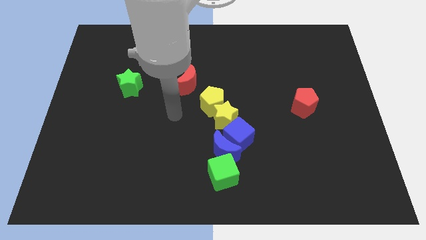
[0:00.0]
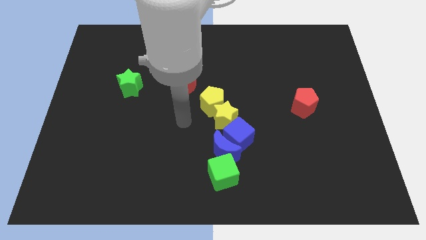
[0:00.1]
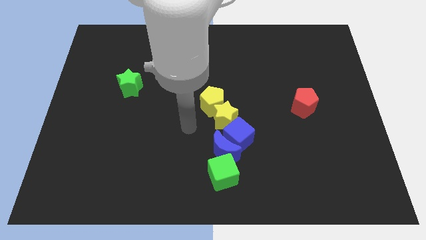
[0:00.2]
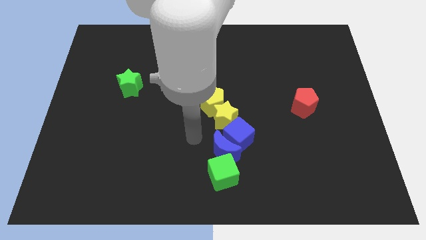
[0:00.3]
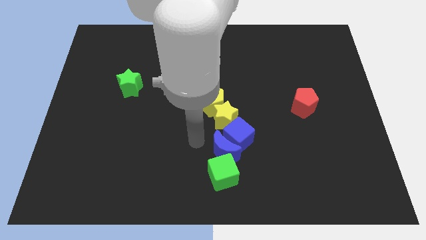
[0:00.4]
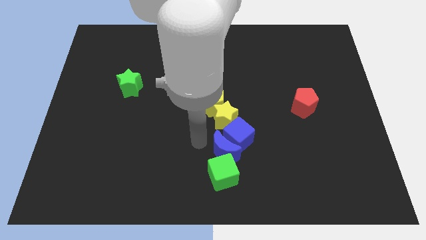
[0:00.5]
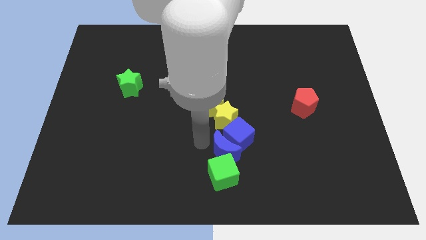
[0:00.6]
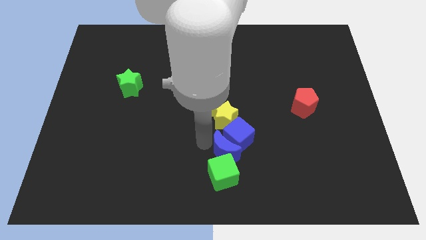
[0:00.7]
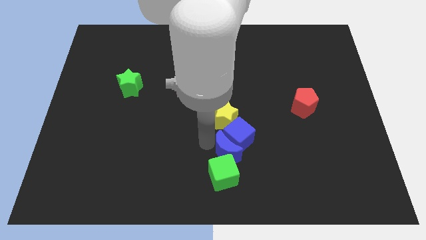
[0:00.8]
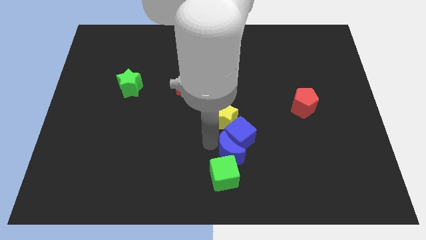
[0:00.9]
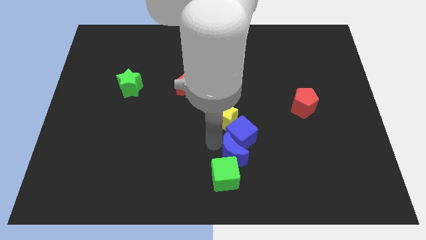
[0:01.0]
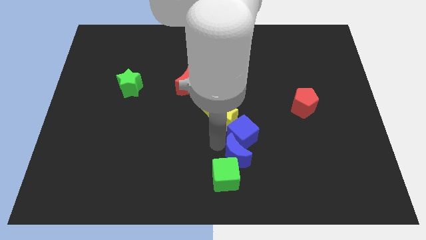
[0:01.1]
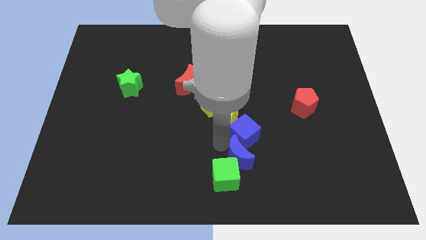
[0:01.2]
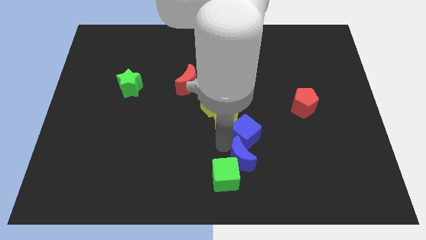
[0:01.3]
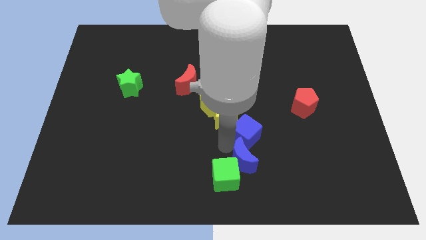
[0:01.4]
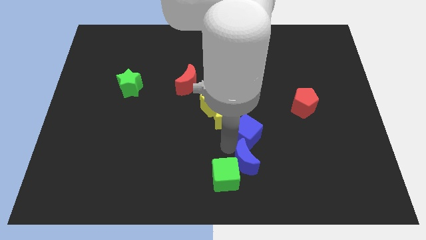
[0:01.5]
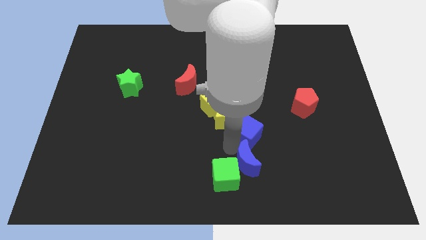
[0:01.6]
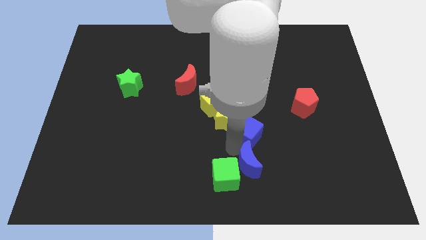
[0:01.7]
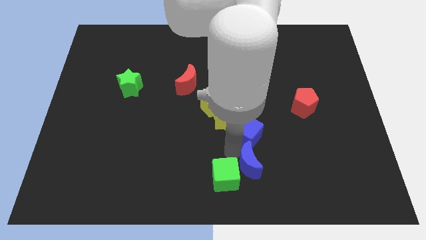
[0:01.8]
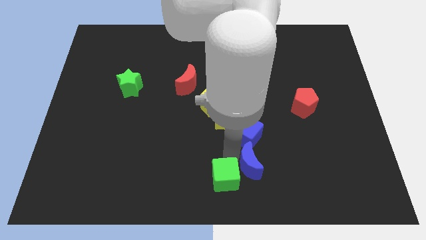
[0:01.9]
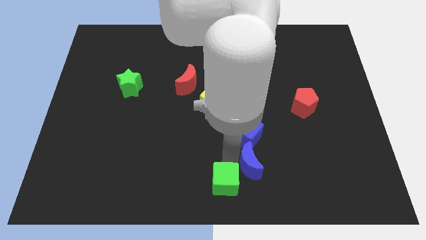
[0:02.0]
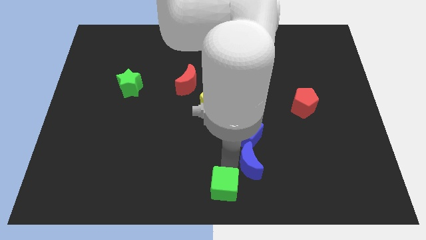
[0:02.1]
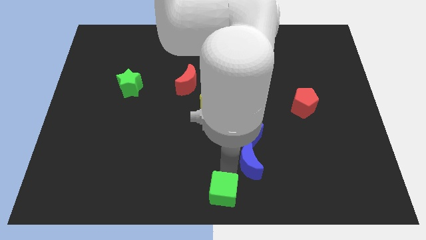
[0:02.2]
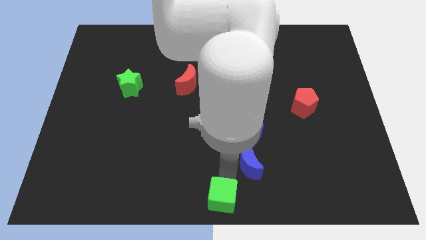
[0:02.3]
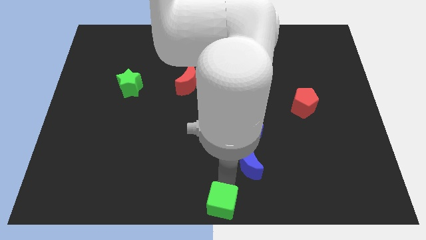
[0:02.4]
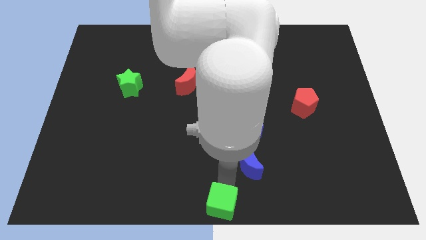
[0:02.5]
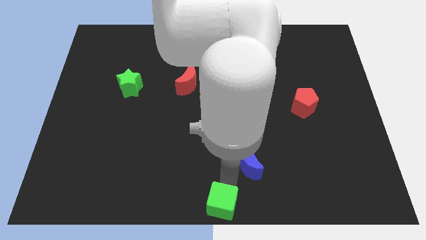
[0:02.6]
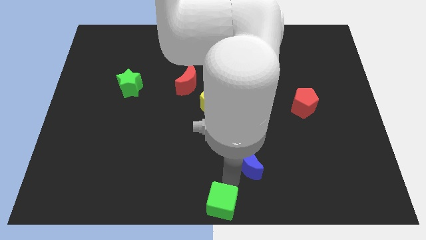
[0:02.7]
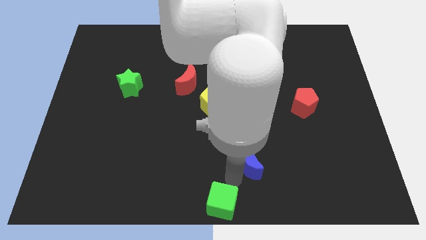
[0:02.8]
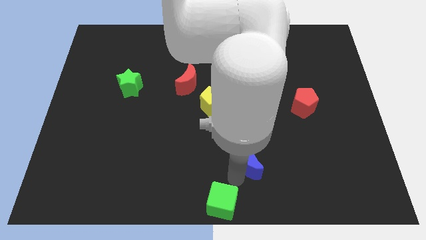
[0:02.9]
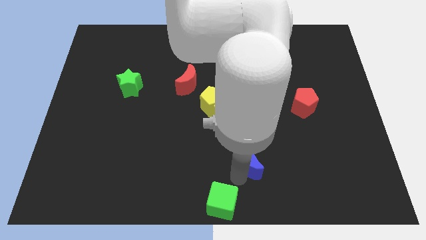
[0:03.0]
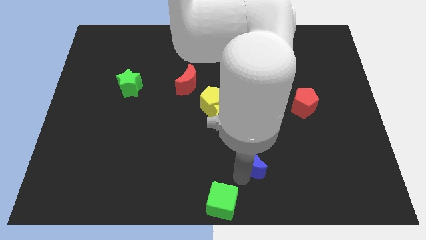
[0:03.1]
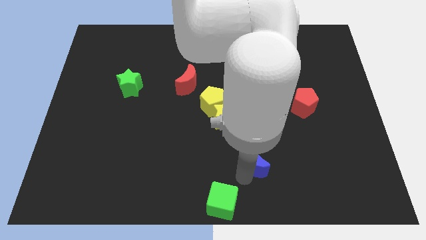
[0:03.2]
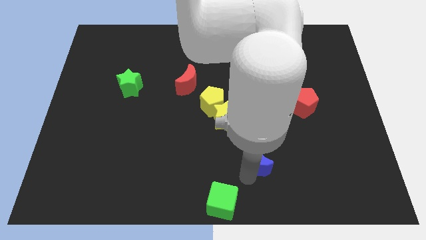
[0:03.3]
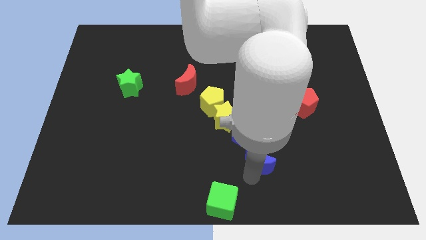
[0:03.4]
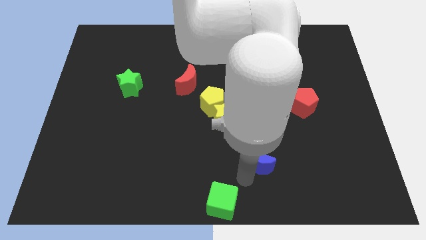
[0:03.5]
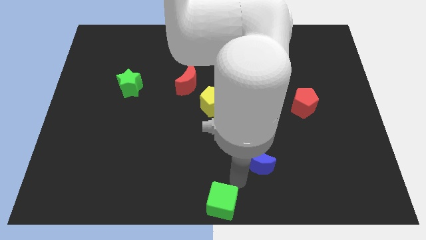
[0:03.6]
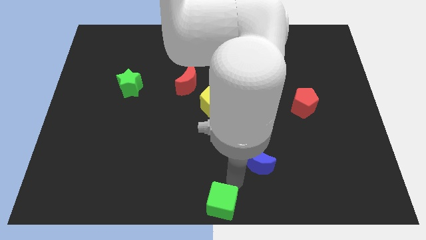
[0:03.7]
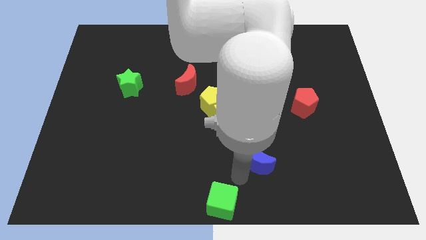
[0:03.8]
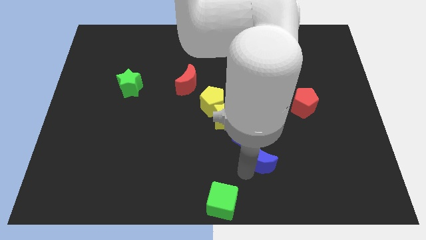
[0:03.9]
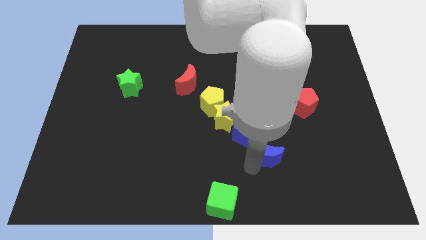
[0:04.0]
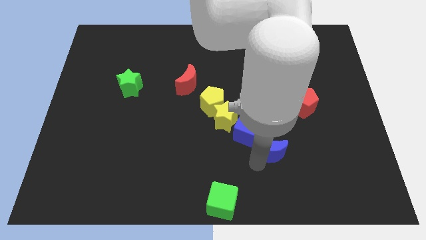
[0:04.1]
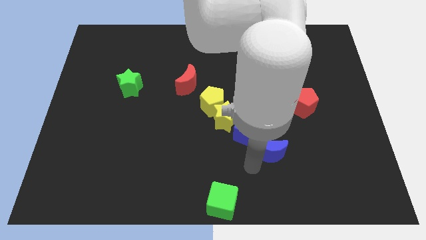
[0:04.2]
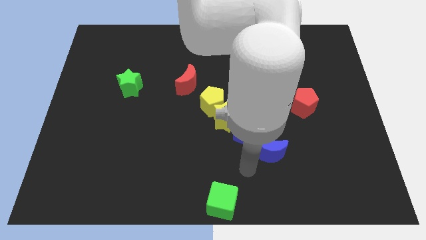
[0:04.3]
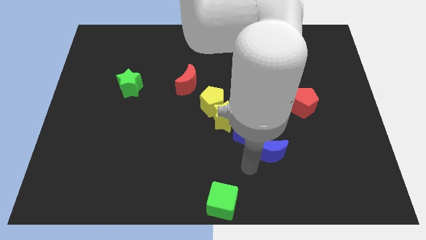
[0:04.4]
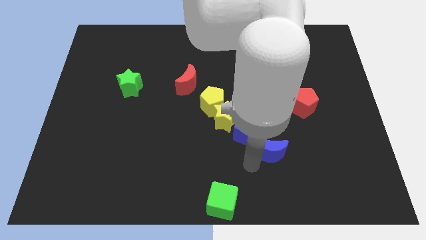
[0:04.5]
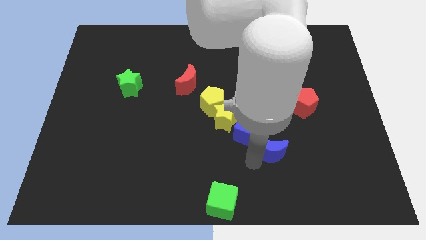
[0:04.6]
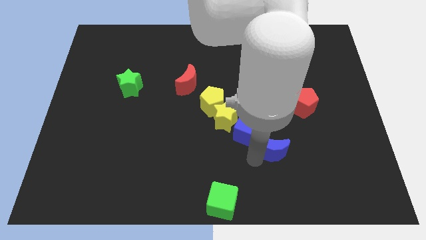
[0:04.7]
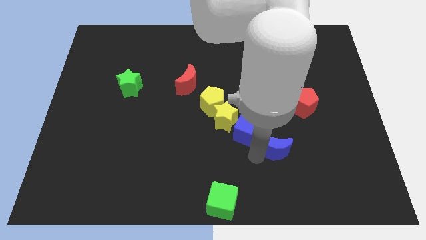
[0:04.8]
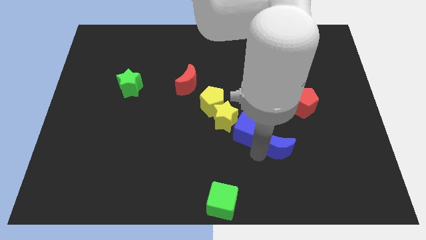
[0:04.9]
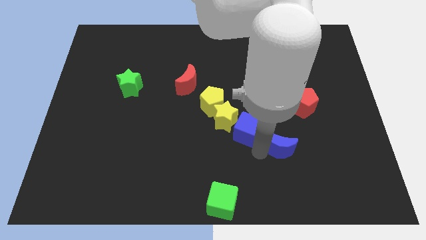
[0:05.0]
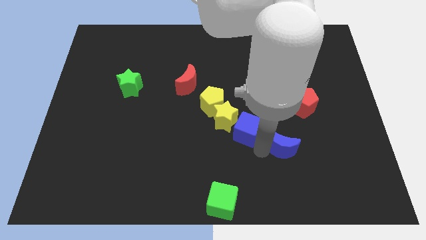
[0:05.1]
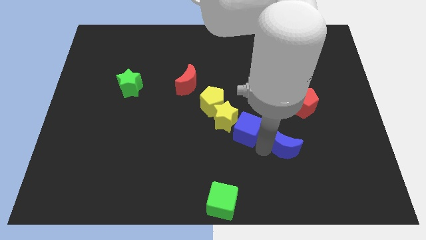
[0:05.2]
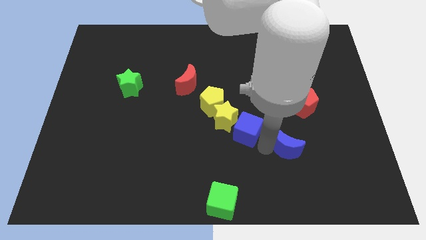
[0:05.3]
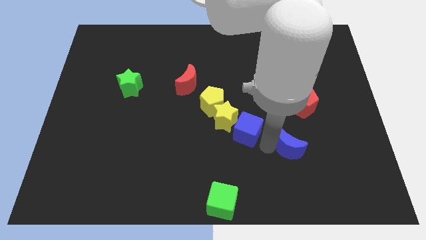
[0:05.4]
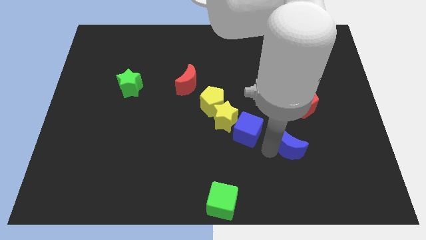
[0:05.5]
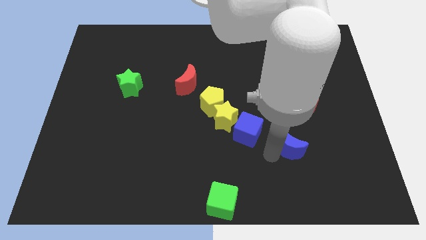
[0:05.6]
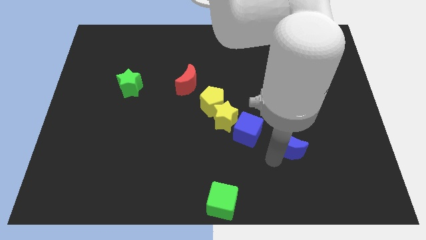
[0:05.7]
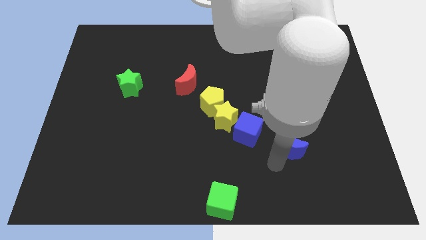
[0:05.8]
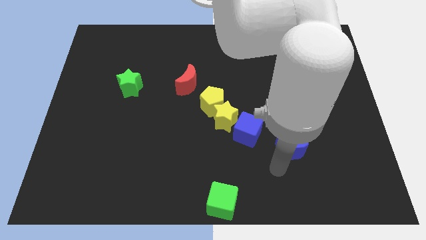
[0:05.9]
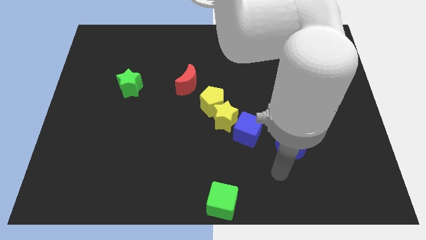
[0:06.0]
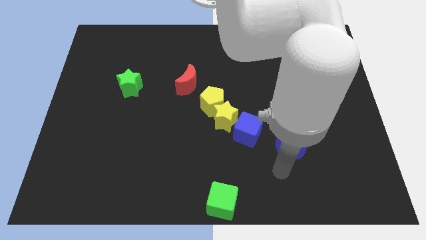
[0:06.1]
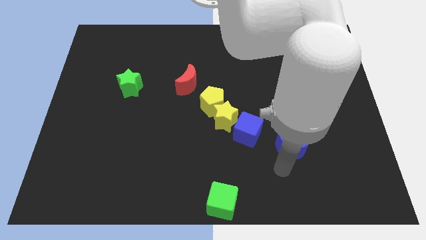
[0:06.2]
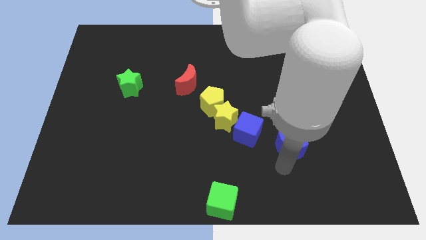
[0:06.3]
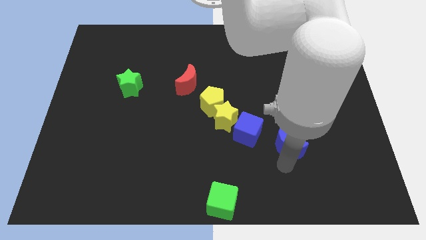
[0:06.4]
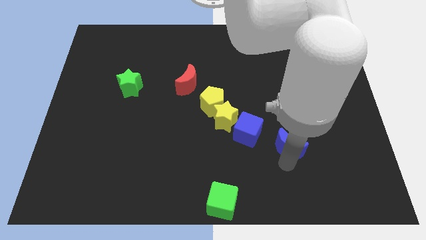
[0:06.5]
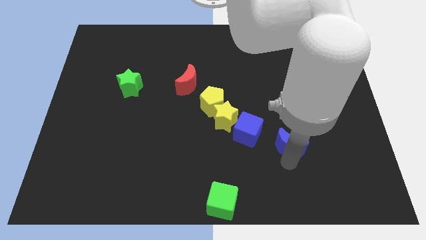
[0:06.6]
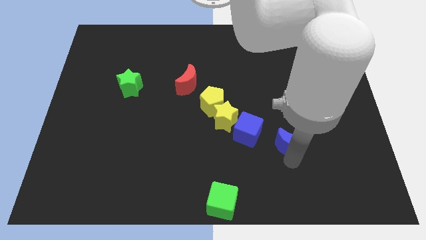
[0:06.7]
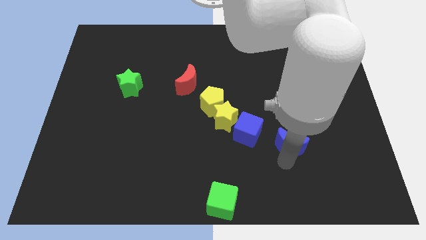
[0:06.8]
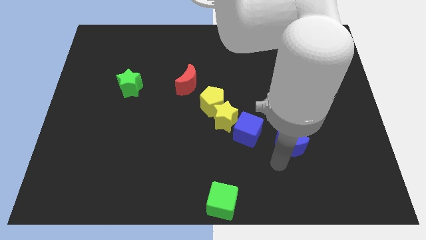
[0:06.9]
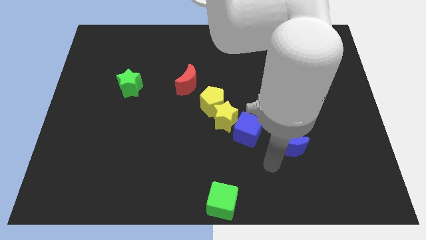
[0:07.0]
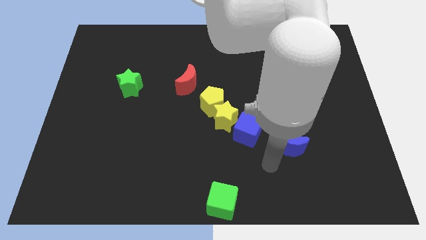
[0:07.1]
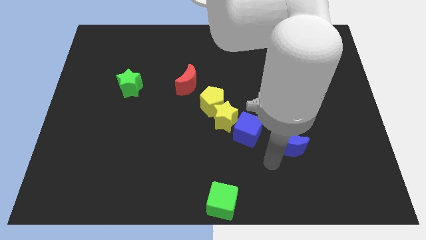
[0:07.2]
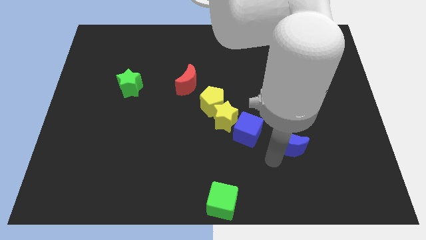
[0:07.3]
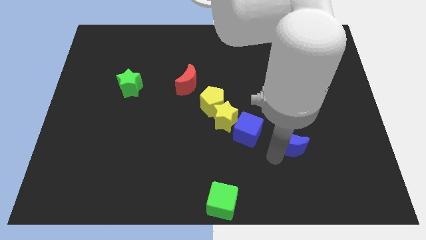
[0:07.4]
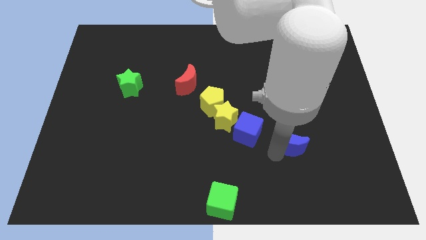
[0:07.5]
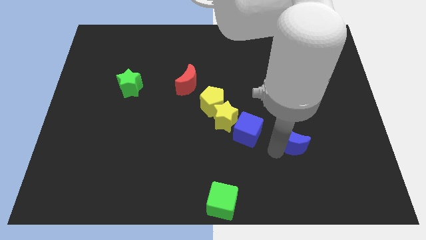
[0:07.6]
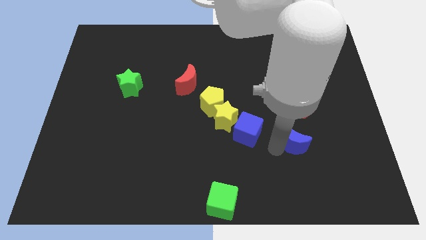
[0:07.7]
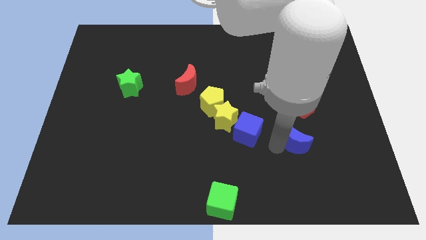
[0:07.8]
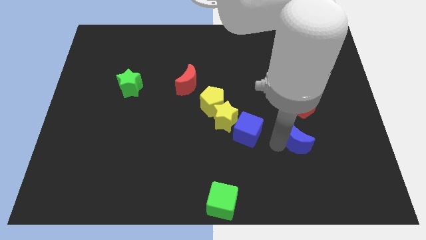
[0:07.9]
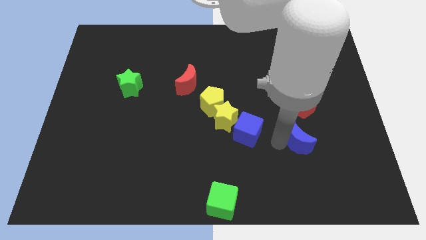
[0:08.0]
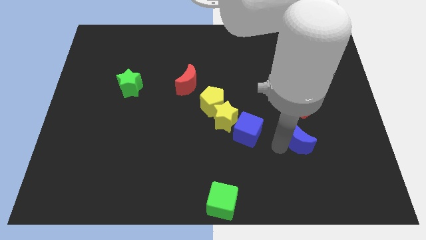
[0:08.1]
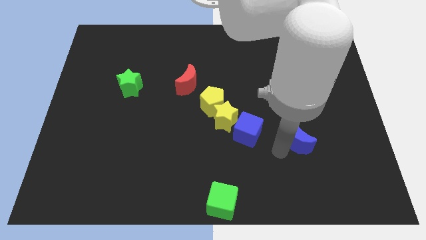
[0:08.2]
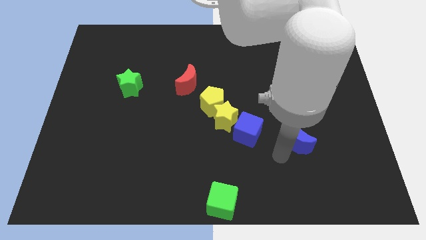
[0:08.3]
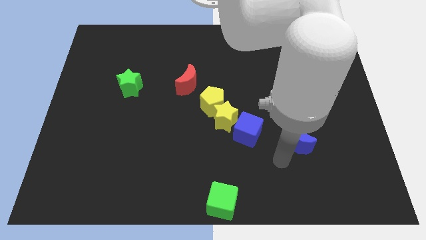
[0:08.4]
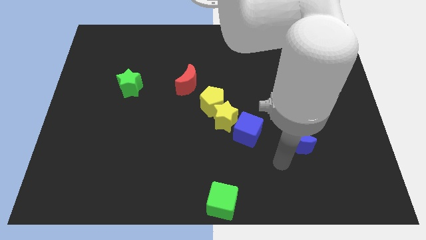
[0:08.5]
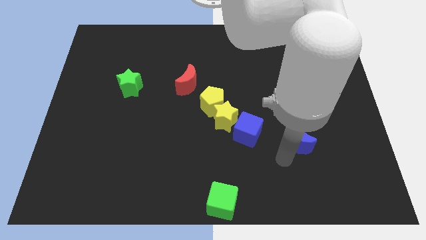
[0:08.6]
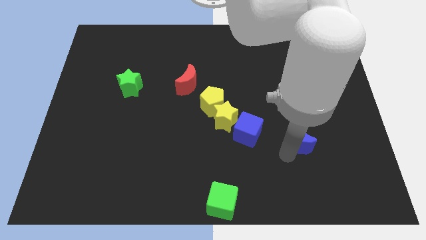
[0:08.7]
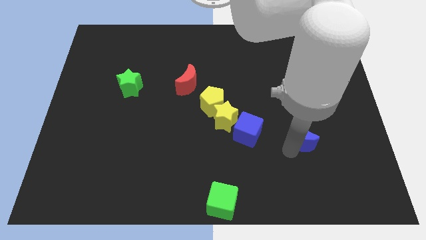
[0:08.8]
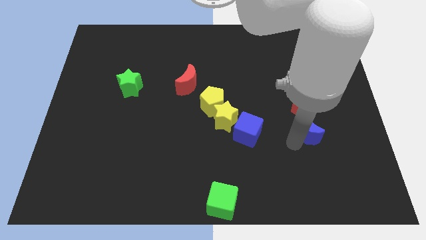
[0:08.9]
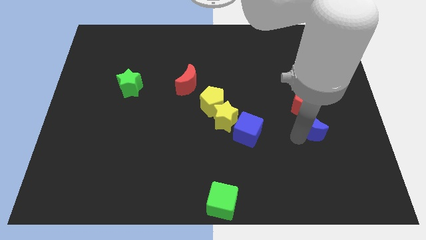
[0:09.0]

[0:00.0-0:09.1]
put the blue moon diagonally down and to the right of the red pentagon
